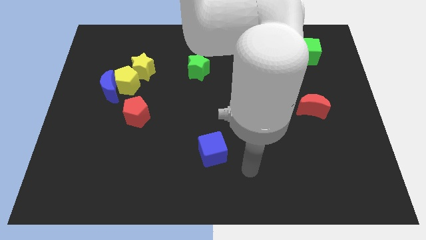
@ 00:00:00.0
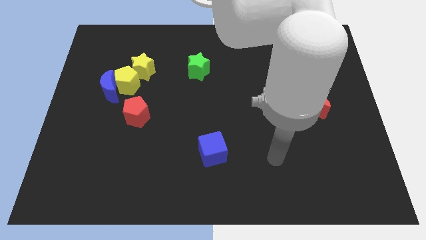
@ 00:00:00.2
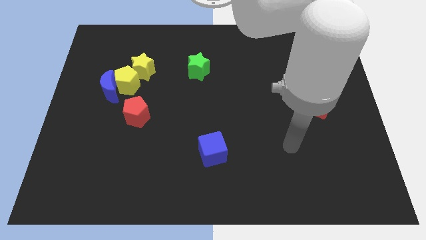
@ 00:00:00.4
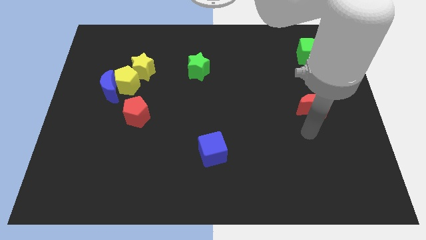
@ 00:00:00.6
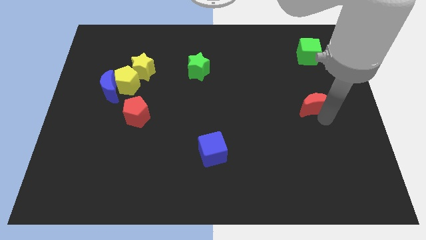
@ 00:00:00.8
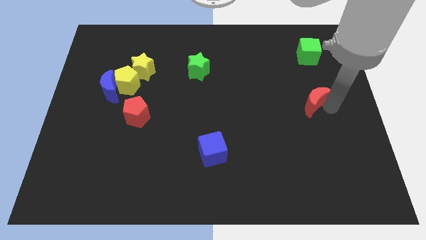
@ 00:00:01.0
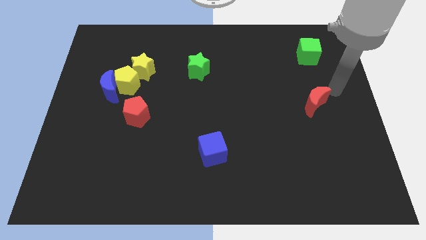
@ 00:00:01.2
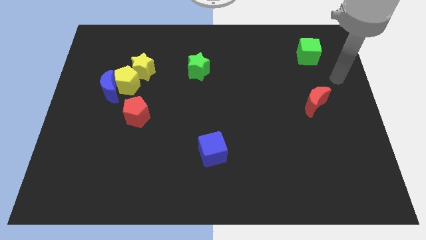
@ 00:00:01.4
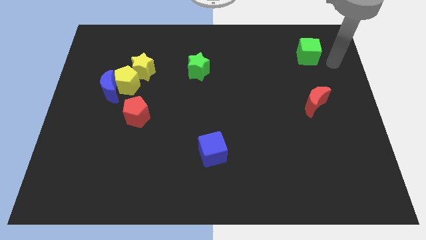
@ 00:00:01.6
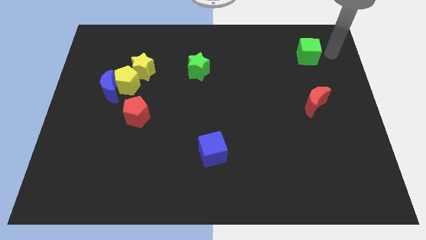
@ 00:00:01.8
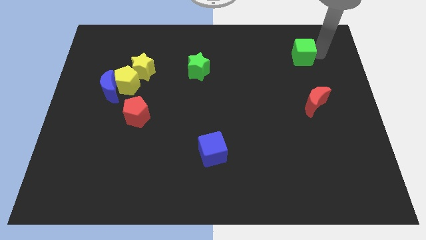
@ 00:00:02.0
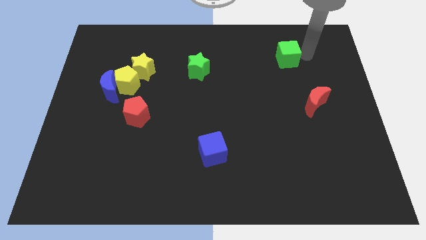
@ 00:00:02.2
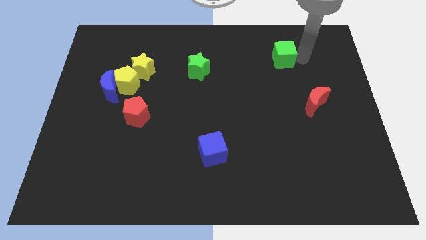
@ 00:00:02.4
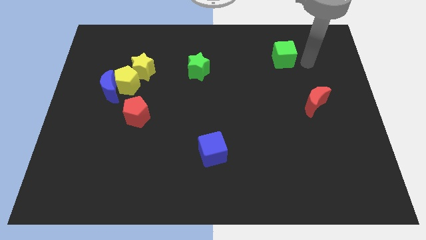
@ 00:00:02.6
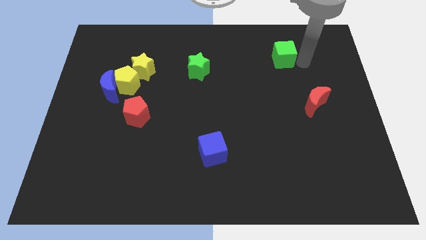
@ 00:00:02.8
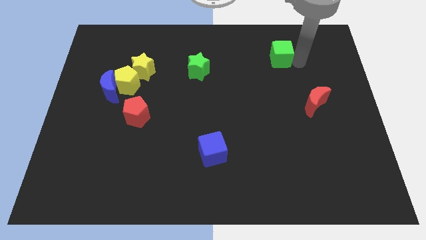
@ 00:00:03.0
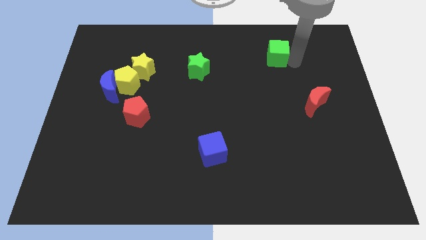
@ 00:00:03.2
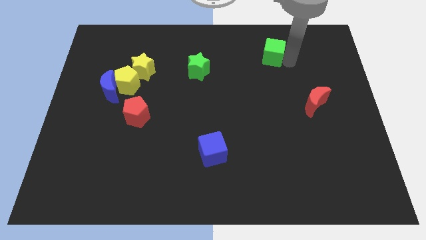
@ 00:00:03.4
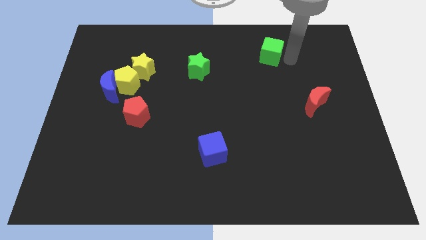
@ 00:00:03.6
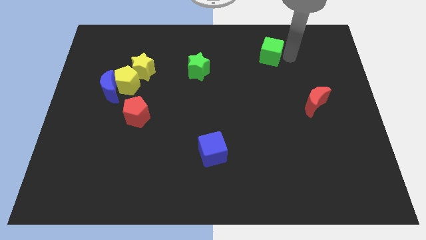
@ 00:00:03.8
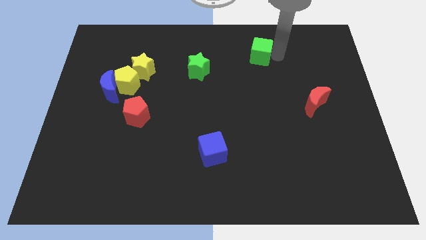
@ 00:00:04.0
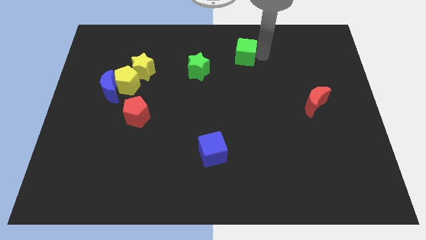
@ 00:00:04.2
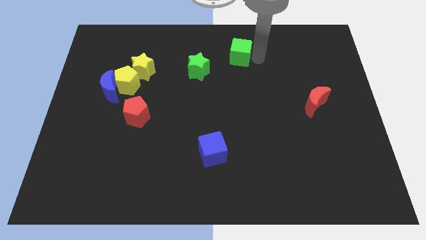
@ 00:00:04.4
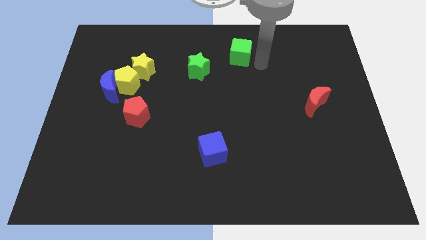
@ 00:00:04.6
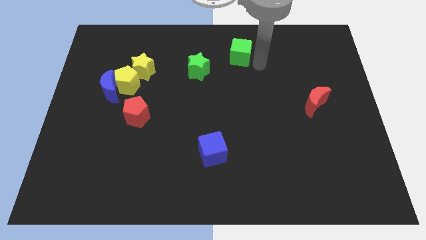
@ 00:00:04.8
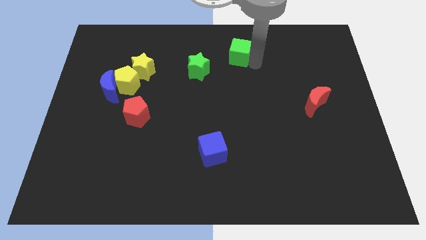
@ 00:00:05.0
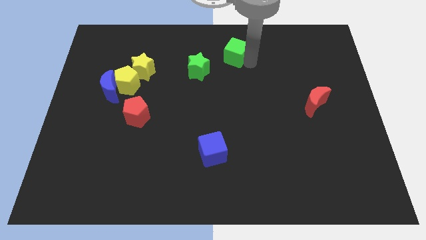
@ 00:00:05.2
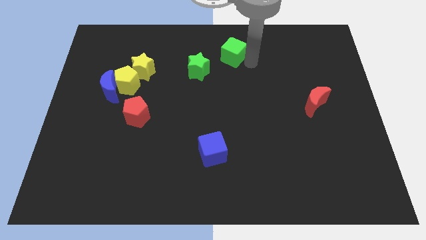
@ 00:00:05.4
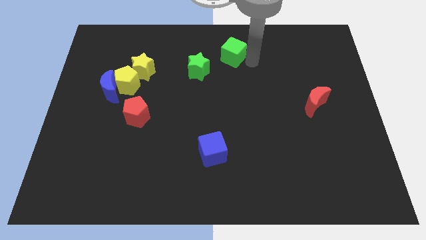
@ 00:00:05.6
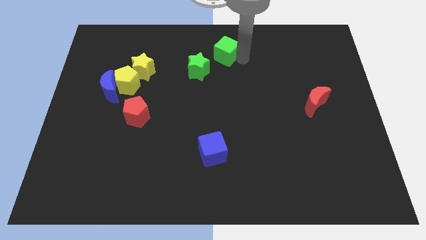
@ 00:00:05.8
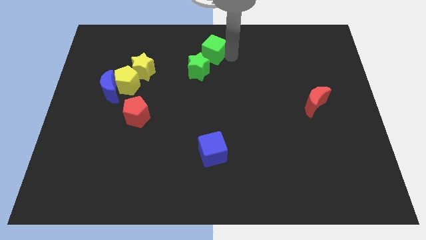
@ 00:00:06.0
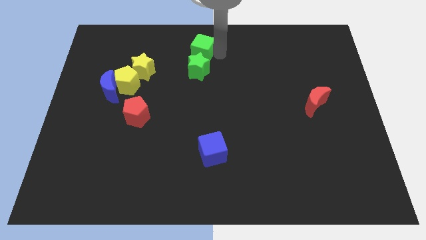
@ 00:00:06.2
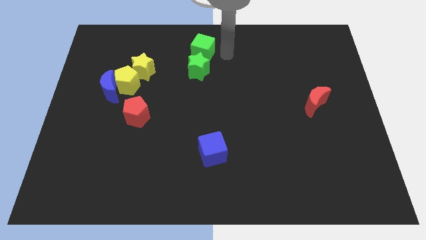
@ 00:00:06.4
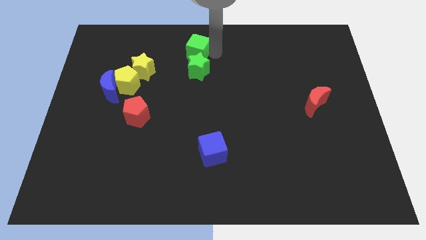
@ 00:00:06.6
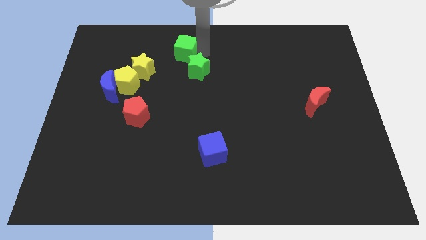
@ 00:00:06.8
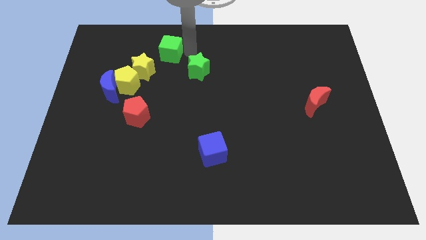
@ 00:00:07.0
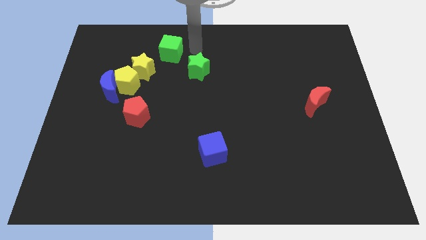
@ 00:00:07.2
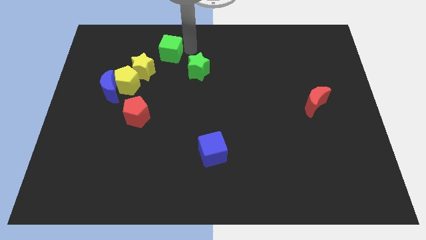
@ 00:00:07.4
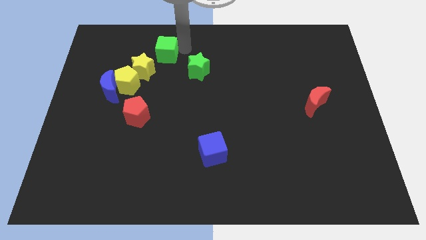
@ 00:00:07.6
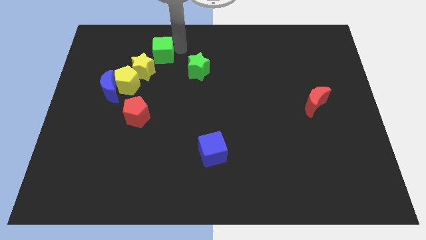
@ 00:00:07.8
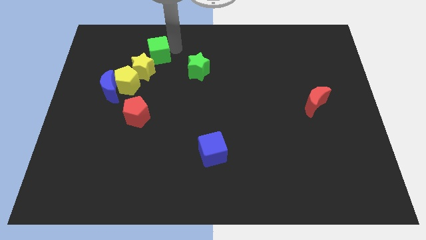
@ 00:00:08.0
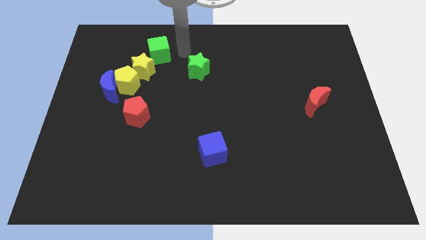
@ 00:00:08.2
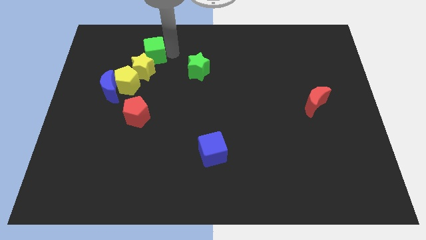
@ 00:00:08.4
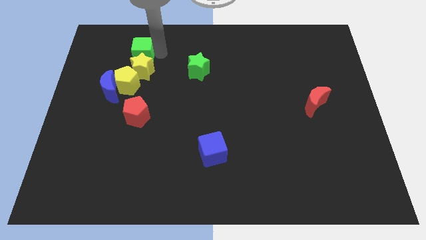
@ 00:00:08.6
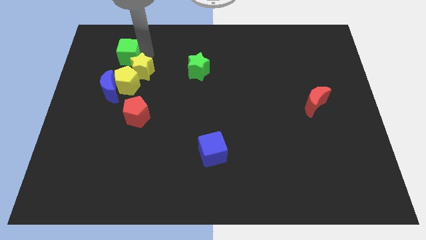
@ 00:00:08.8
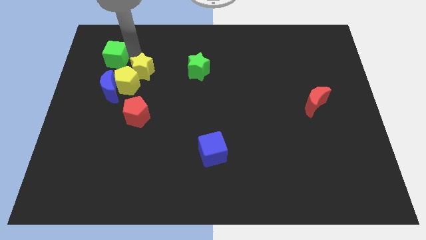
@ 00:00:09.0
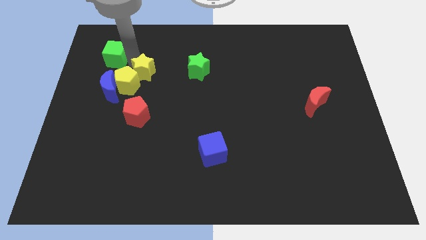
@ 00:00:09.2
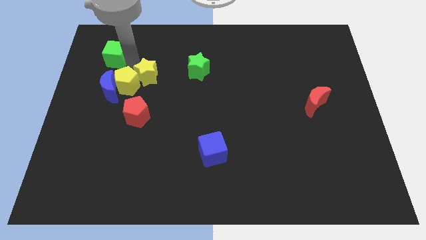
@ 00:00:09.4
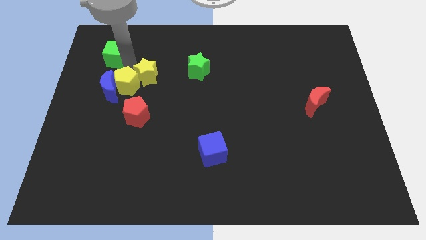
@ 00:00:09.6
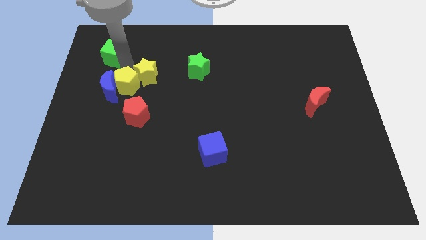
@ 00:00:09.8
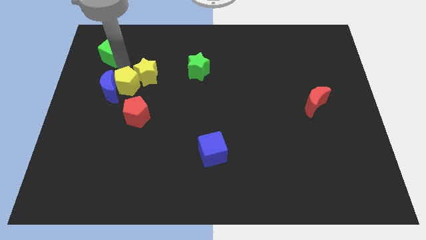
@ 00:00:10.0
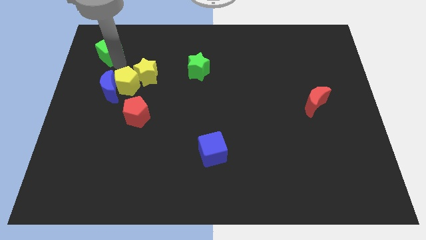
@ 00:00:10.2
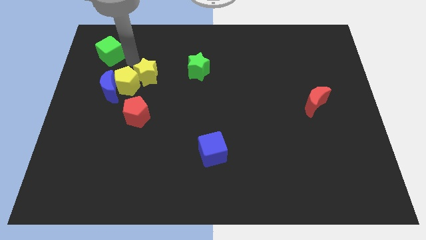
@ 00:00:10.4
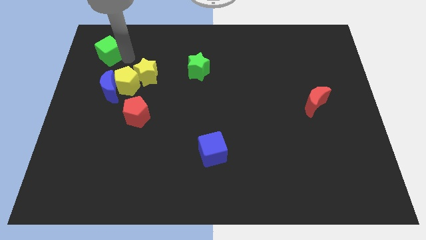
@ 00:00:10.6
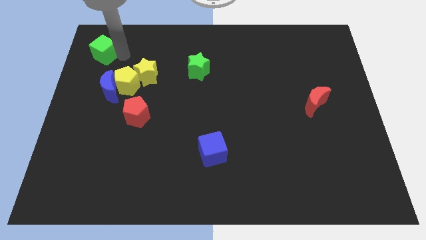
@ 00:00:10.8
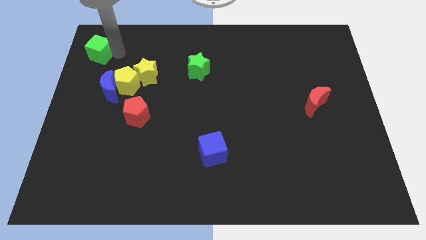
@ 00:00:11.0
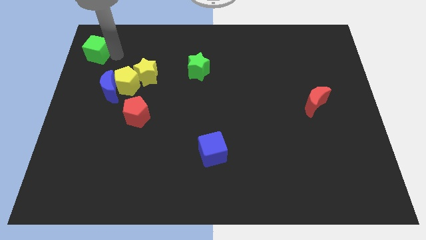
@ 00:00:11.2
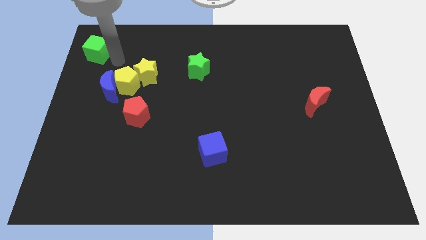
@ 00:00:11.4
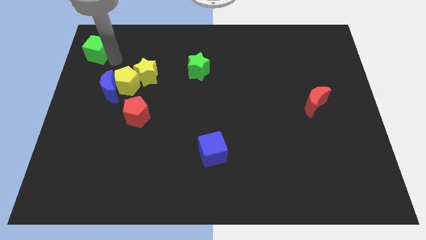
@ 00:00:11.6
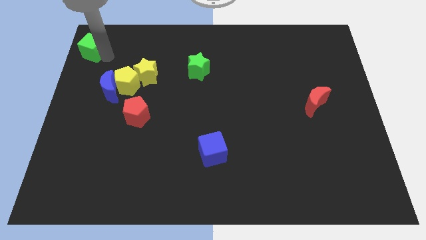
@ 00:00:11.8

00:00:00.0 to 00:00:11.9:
move the green cube to the top left of the board

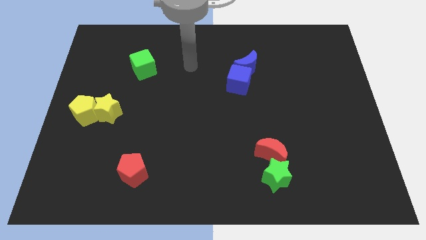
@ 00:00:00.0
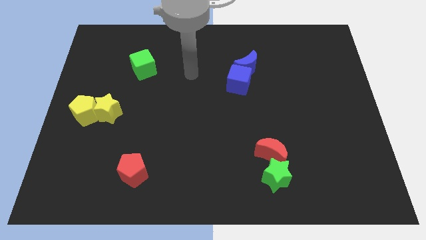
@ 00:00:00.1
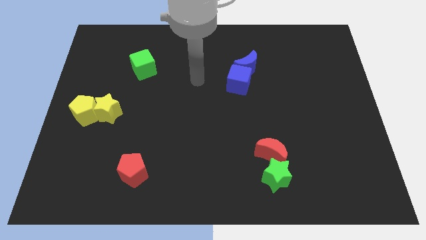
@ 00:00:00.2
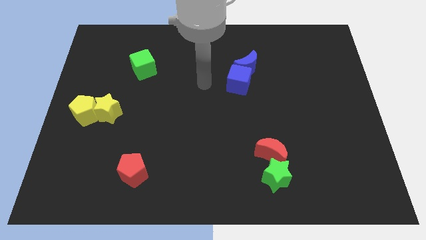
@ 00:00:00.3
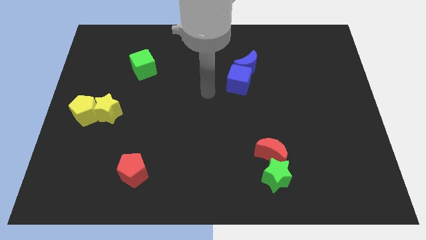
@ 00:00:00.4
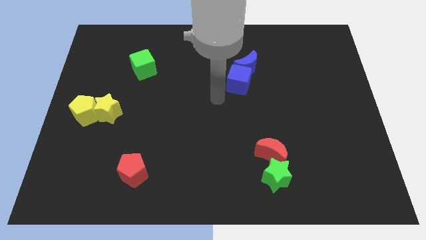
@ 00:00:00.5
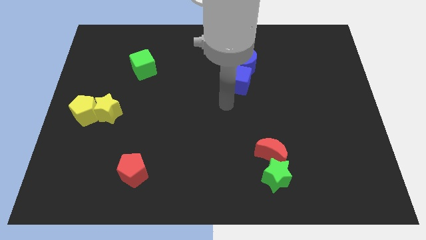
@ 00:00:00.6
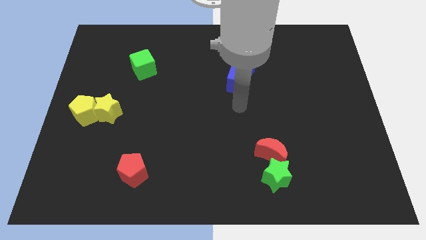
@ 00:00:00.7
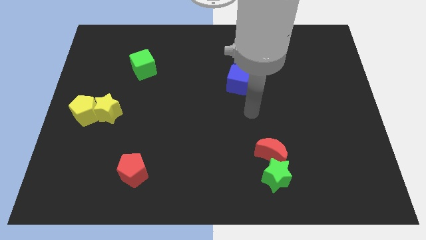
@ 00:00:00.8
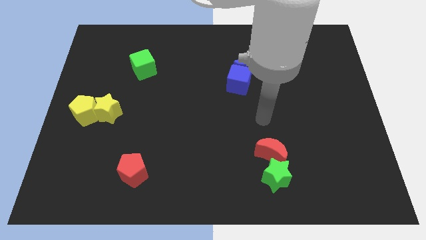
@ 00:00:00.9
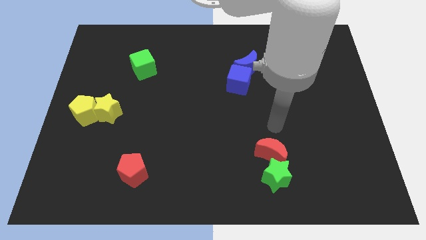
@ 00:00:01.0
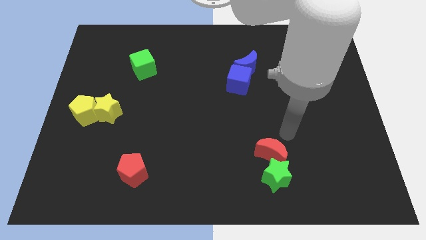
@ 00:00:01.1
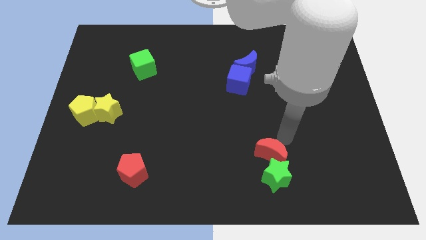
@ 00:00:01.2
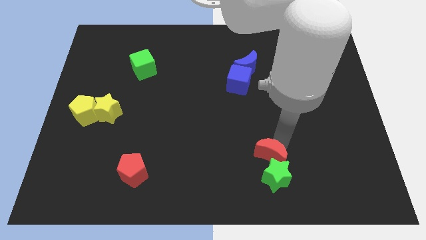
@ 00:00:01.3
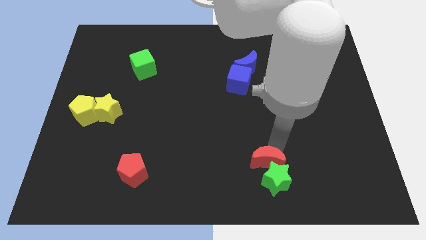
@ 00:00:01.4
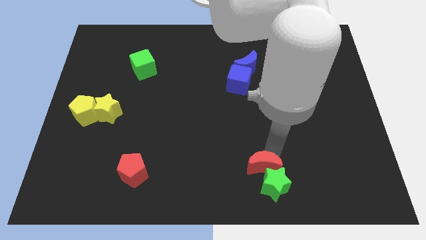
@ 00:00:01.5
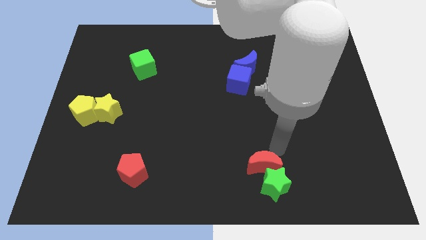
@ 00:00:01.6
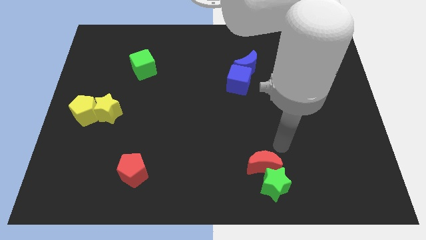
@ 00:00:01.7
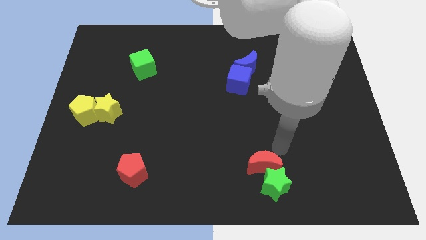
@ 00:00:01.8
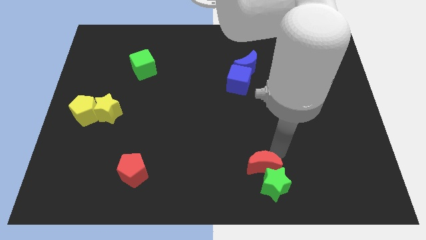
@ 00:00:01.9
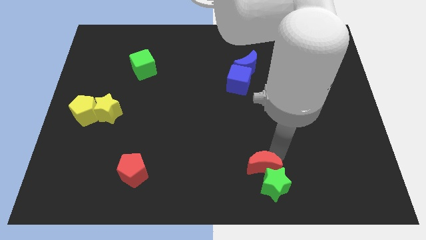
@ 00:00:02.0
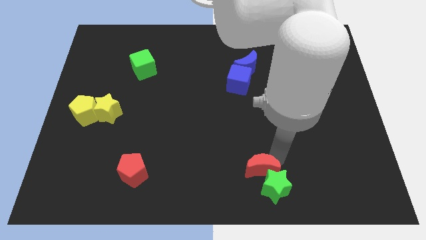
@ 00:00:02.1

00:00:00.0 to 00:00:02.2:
put the red moon to the bottom
